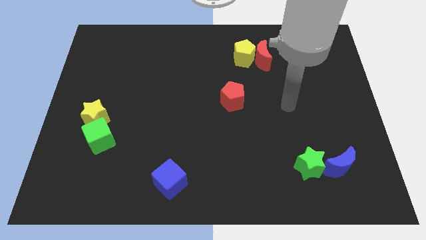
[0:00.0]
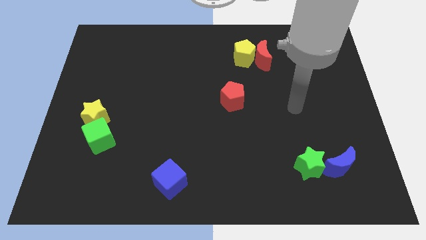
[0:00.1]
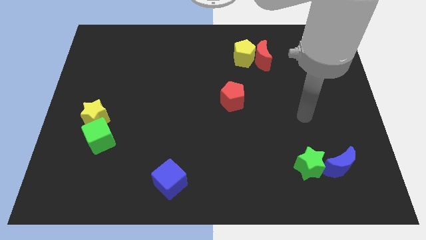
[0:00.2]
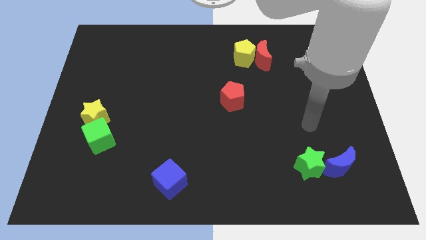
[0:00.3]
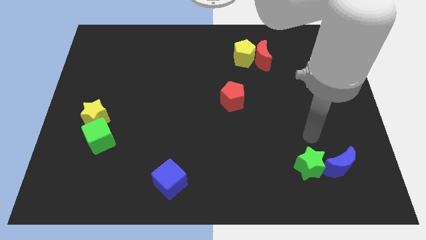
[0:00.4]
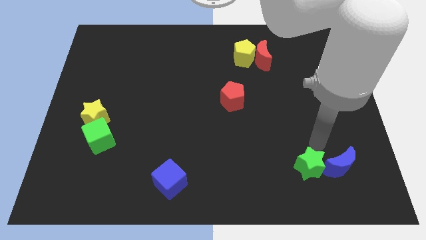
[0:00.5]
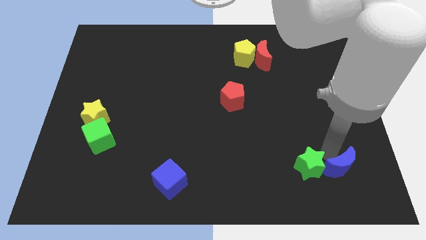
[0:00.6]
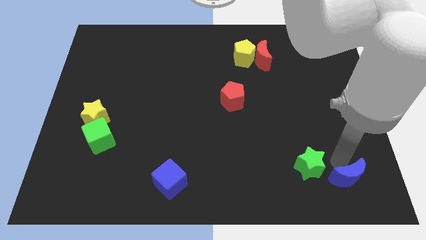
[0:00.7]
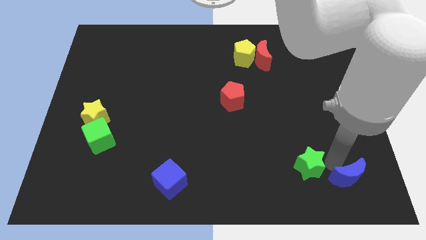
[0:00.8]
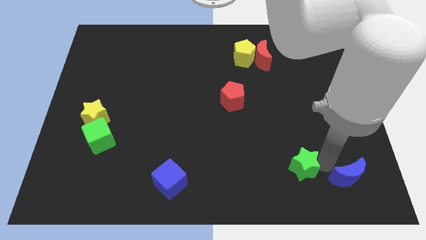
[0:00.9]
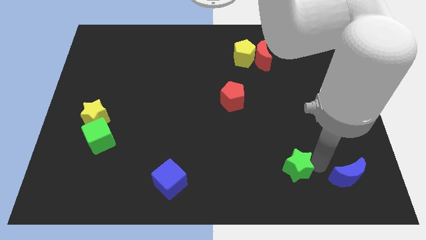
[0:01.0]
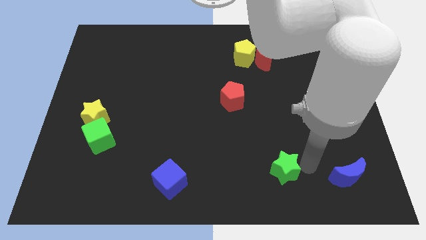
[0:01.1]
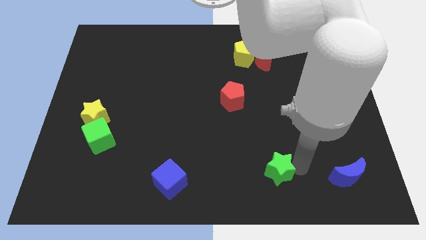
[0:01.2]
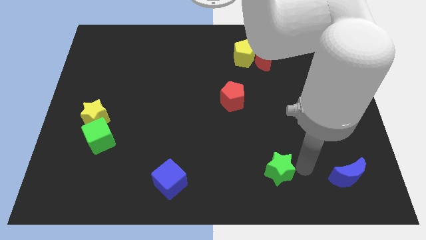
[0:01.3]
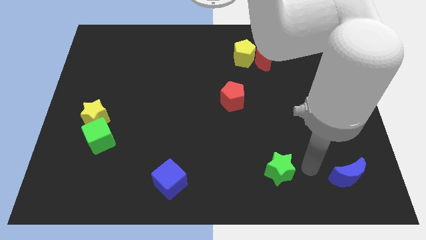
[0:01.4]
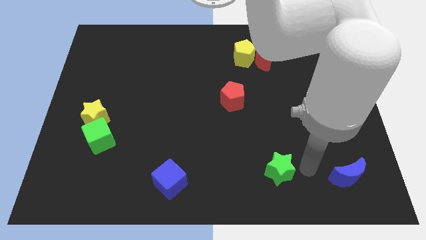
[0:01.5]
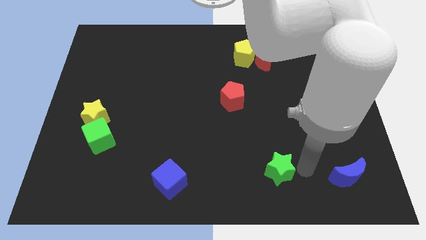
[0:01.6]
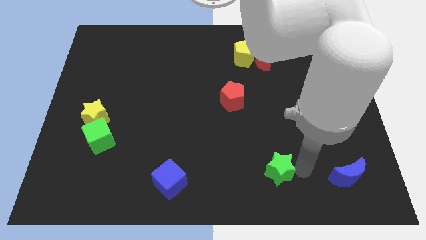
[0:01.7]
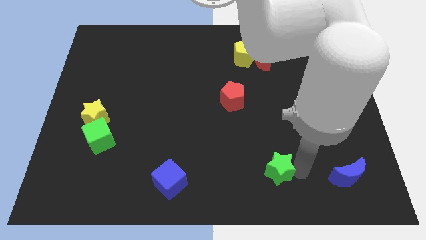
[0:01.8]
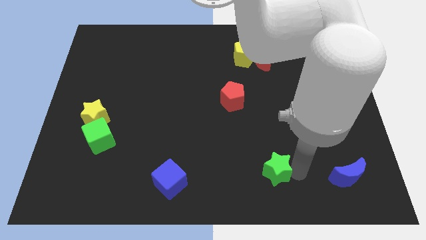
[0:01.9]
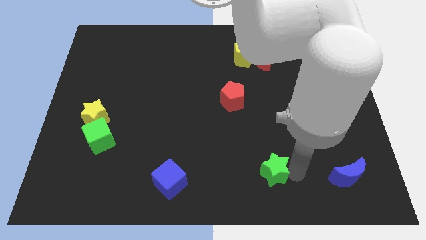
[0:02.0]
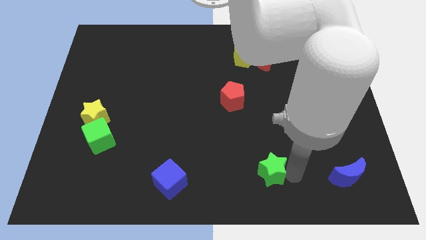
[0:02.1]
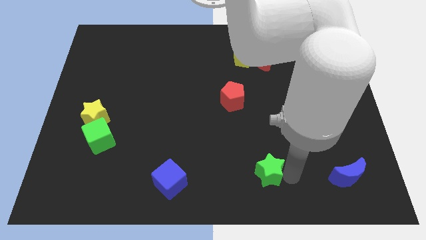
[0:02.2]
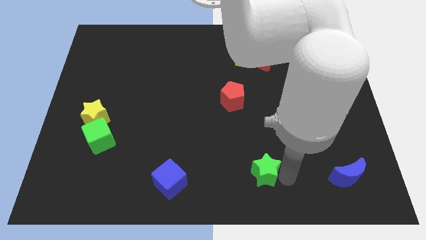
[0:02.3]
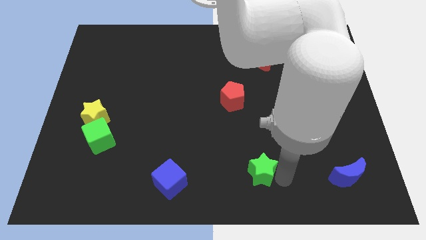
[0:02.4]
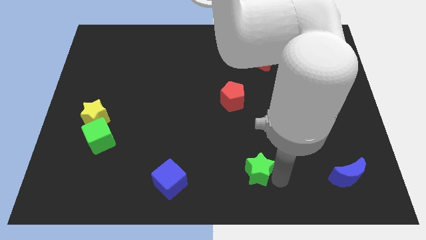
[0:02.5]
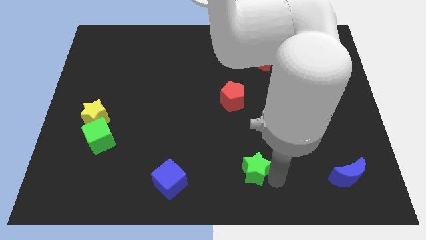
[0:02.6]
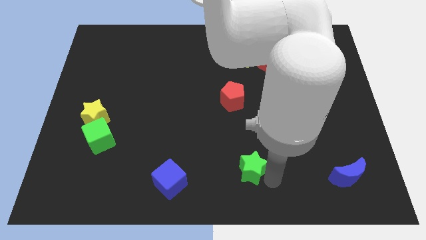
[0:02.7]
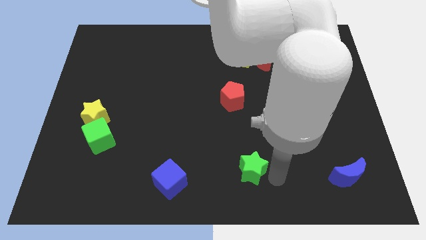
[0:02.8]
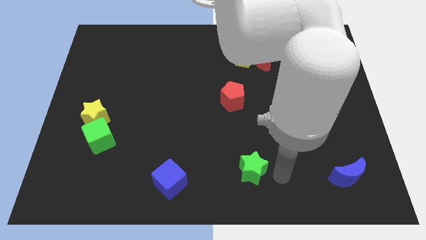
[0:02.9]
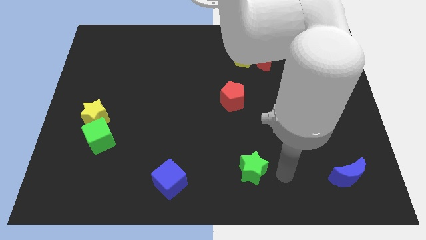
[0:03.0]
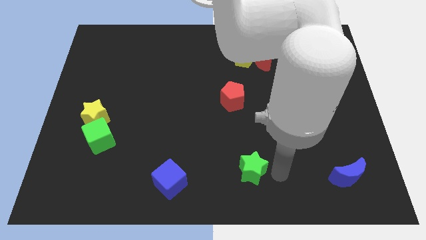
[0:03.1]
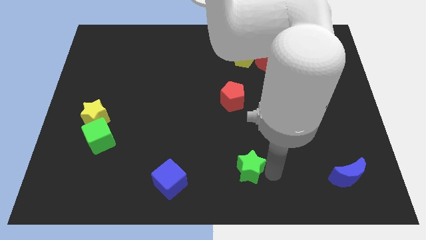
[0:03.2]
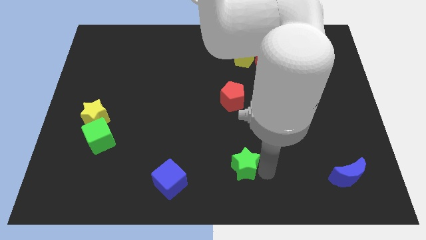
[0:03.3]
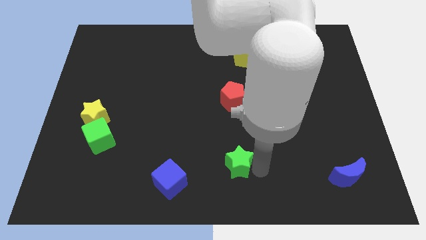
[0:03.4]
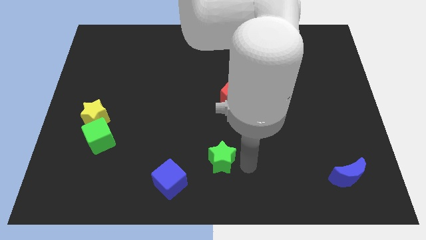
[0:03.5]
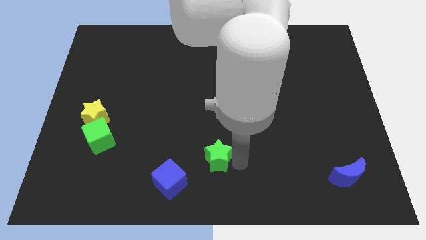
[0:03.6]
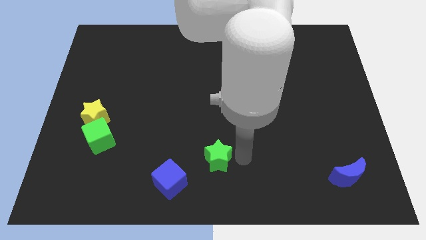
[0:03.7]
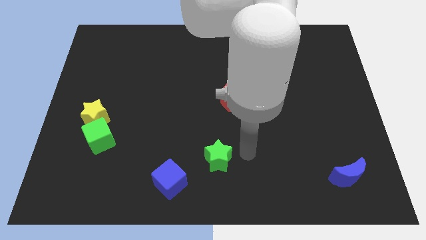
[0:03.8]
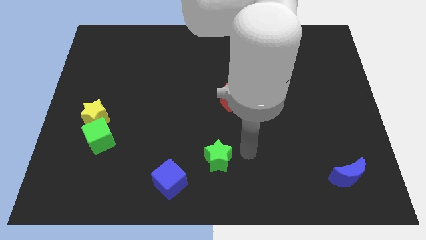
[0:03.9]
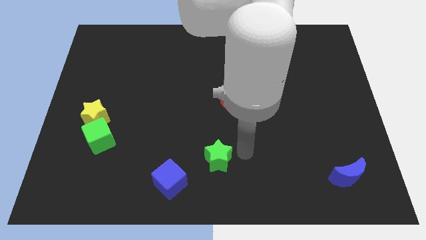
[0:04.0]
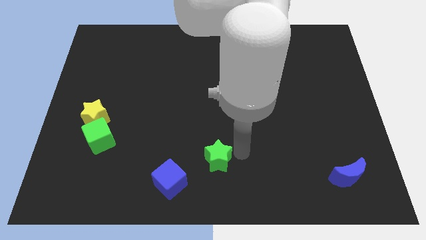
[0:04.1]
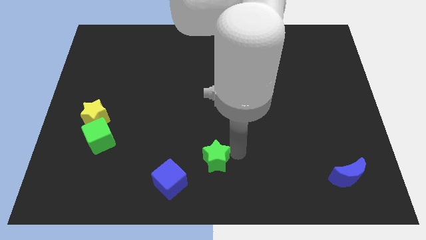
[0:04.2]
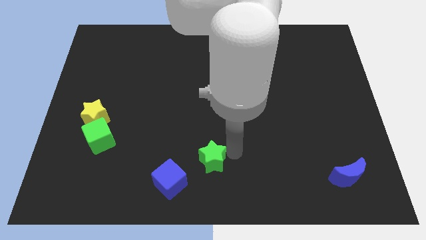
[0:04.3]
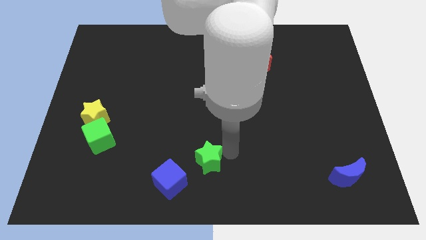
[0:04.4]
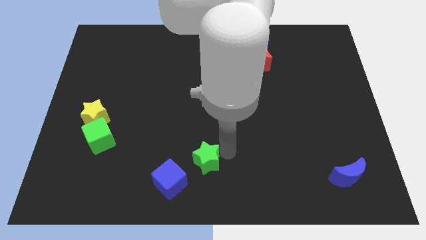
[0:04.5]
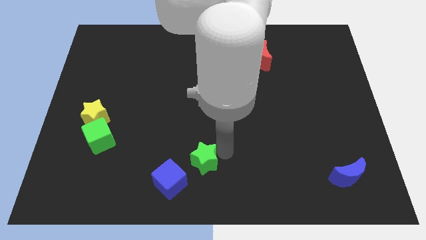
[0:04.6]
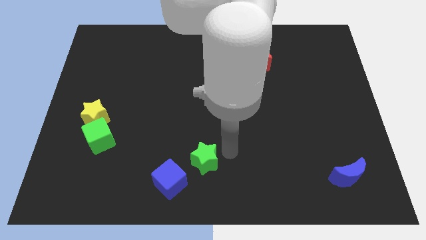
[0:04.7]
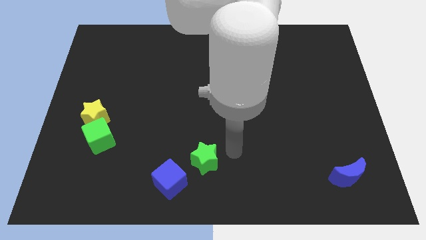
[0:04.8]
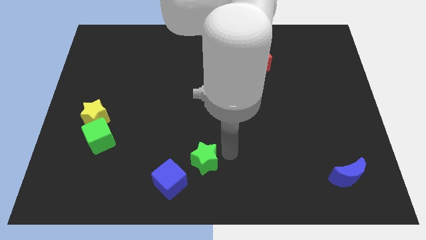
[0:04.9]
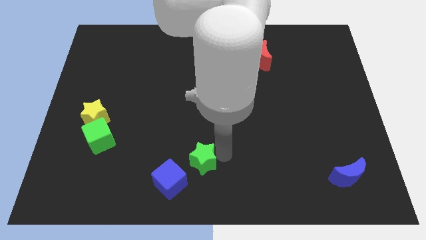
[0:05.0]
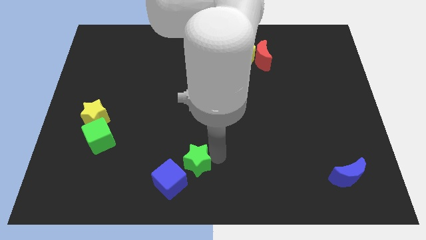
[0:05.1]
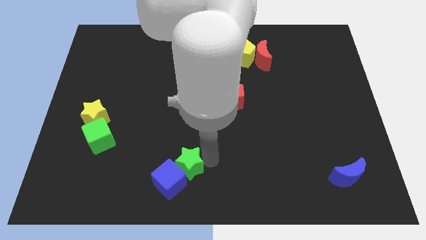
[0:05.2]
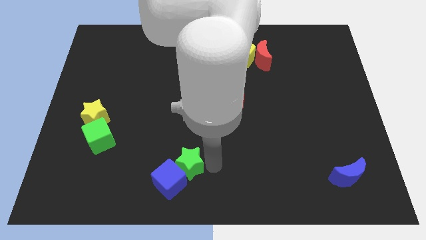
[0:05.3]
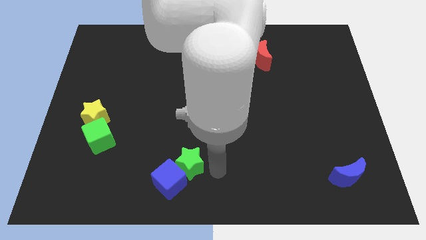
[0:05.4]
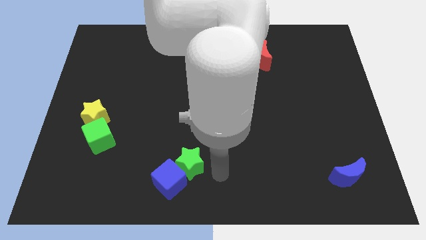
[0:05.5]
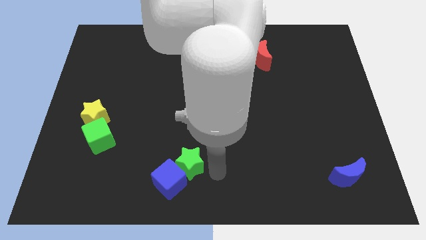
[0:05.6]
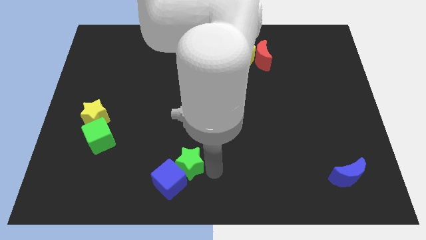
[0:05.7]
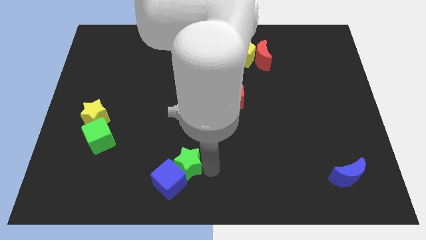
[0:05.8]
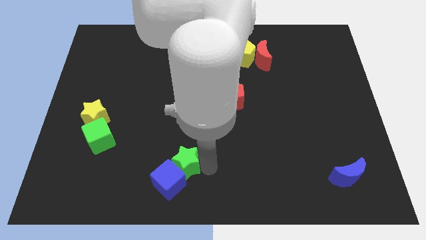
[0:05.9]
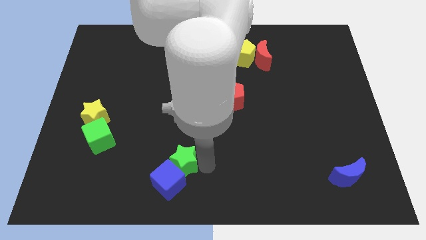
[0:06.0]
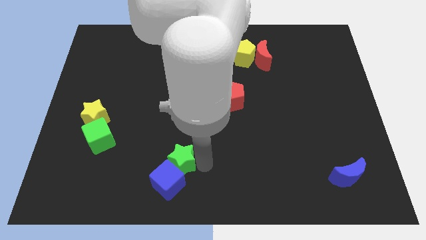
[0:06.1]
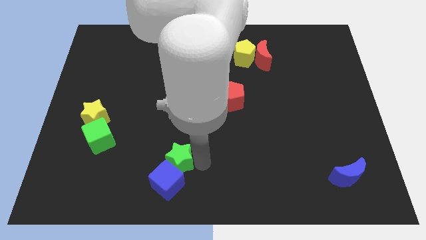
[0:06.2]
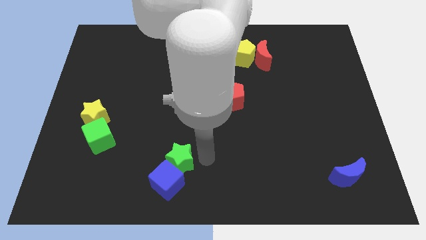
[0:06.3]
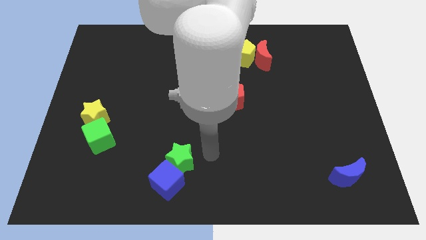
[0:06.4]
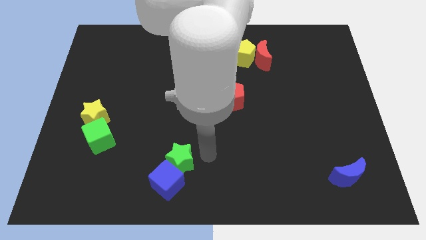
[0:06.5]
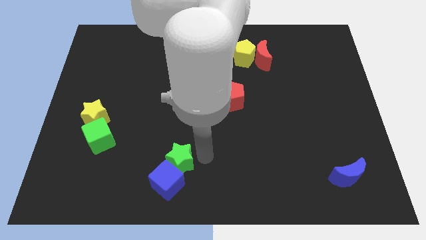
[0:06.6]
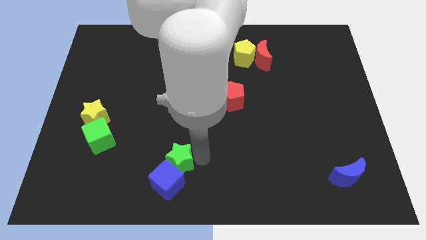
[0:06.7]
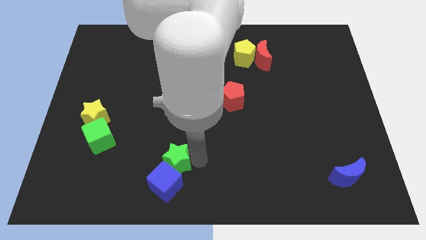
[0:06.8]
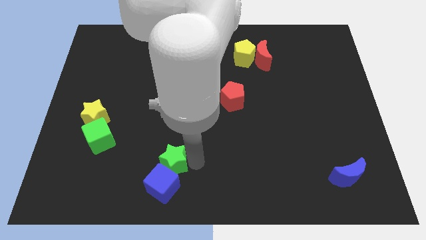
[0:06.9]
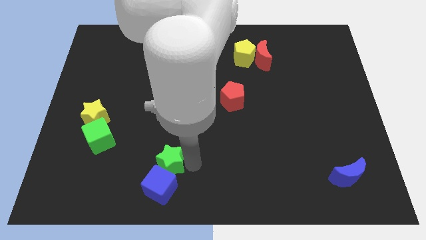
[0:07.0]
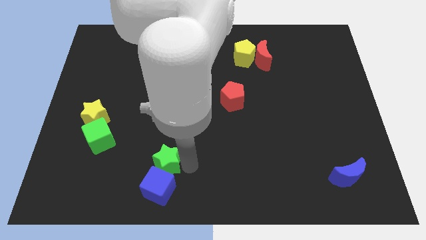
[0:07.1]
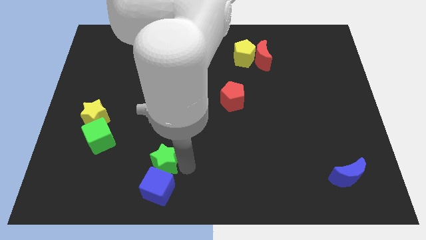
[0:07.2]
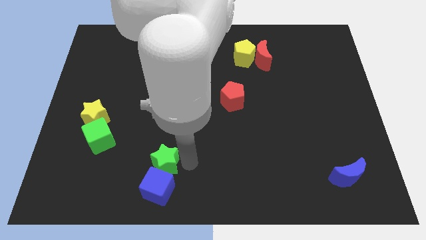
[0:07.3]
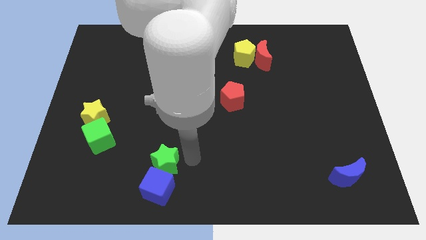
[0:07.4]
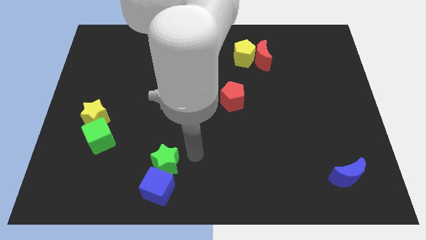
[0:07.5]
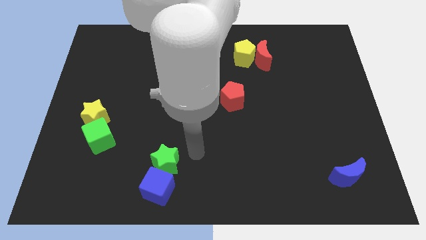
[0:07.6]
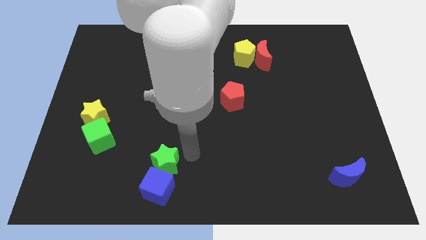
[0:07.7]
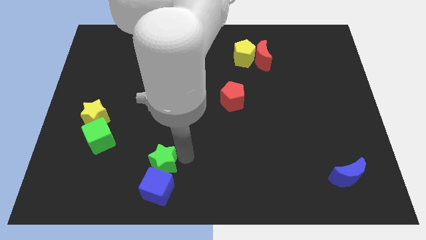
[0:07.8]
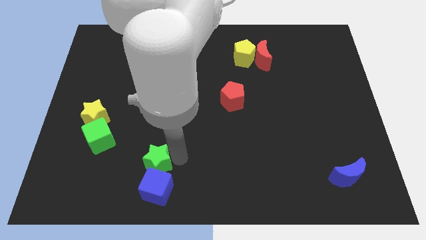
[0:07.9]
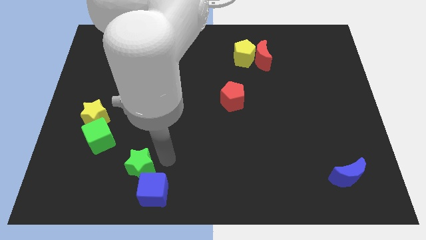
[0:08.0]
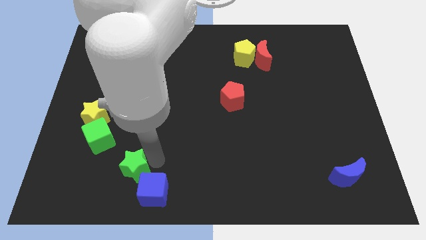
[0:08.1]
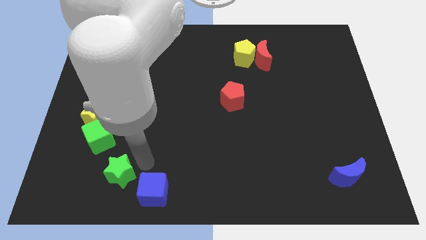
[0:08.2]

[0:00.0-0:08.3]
slide the green star to the left side of the blue cube
